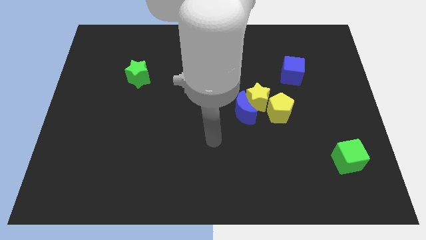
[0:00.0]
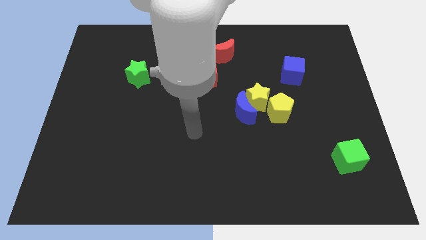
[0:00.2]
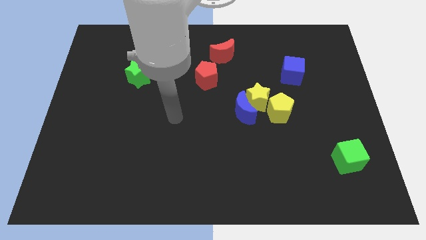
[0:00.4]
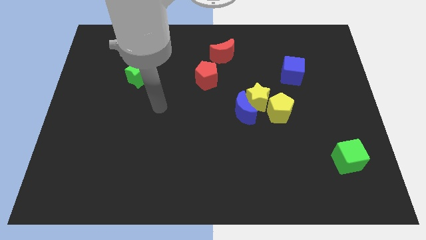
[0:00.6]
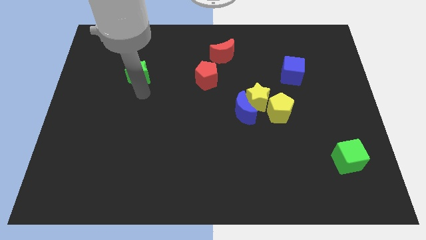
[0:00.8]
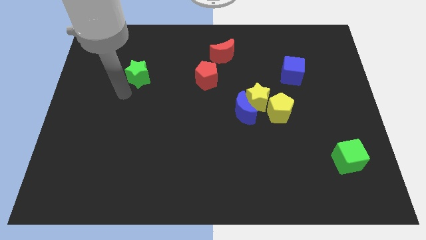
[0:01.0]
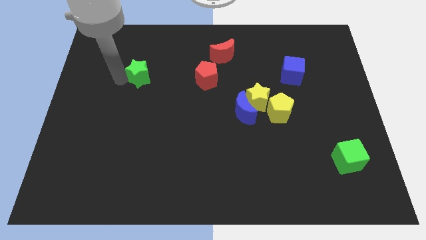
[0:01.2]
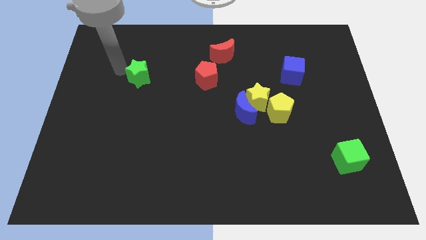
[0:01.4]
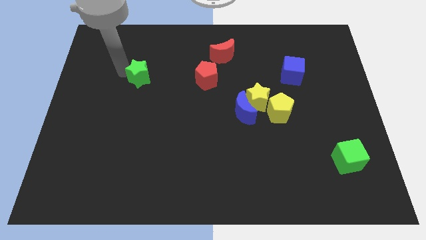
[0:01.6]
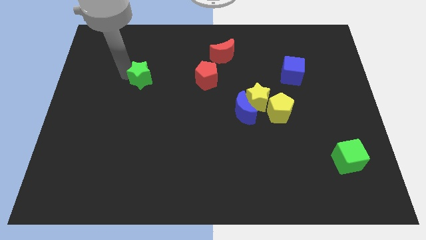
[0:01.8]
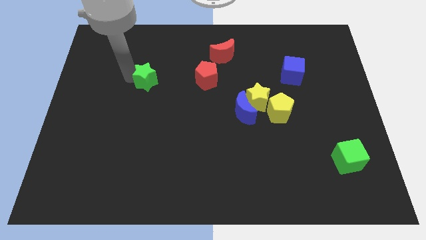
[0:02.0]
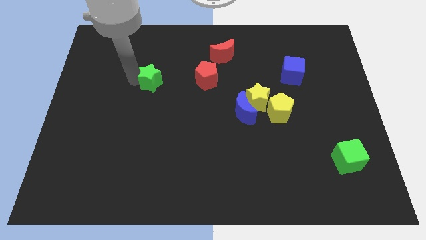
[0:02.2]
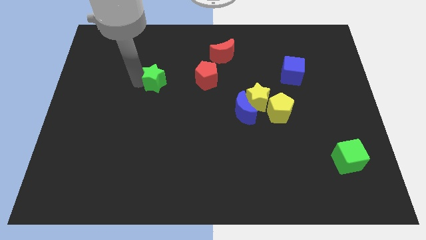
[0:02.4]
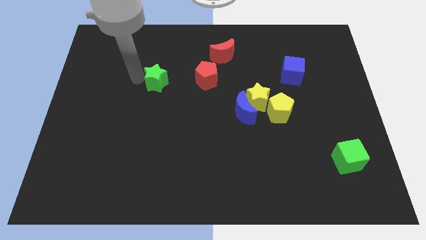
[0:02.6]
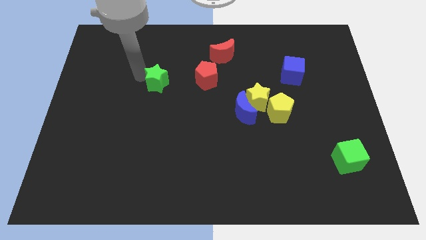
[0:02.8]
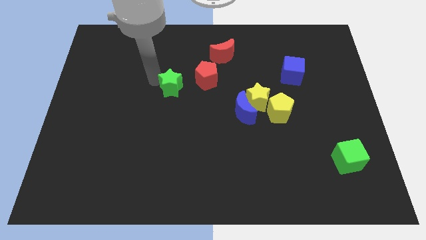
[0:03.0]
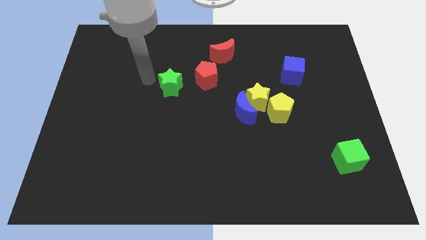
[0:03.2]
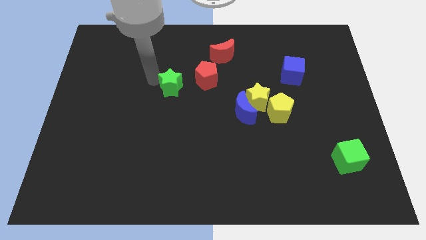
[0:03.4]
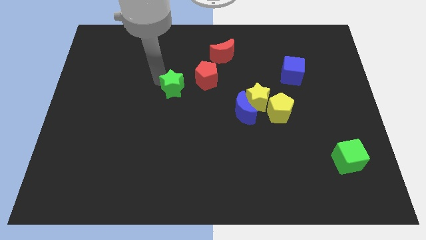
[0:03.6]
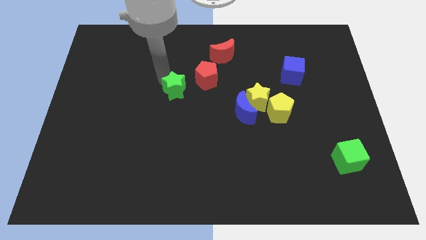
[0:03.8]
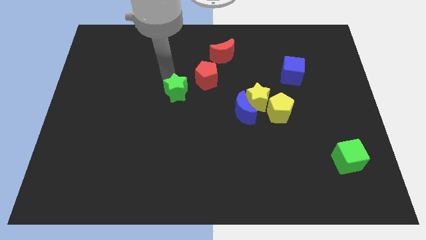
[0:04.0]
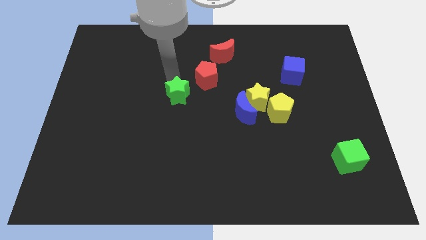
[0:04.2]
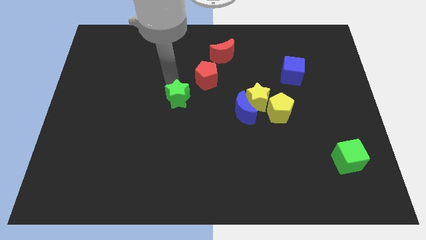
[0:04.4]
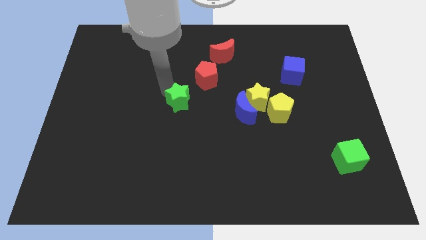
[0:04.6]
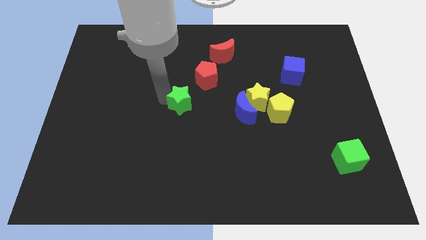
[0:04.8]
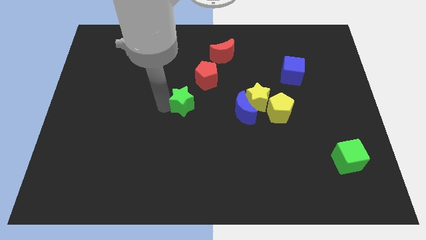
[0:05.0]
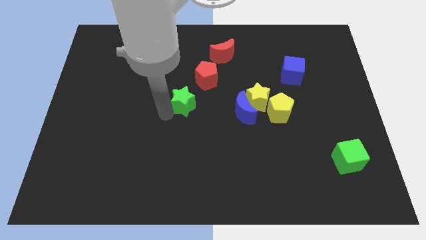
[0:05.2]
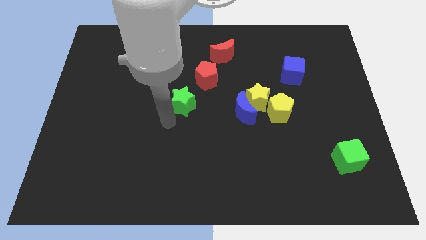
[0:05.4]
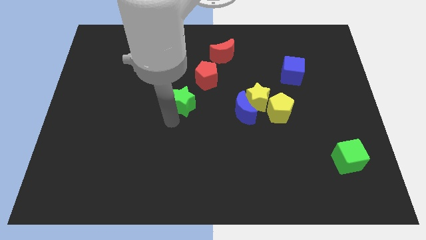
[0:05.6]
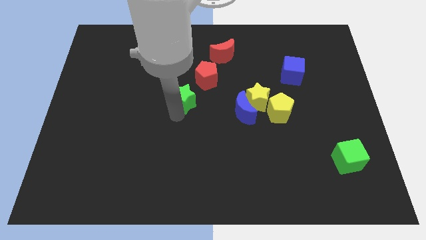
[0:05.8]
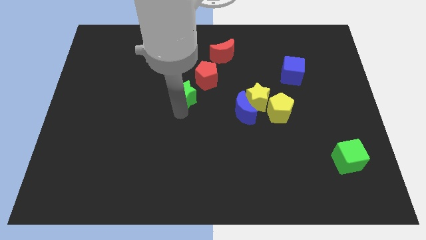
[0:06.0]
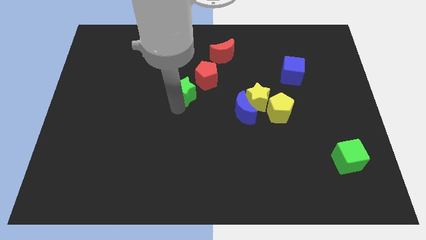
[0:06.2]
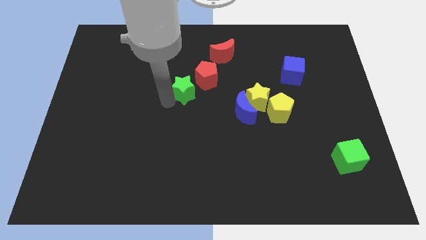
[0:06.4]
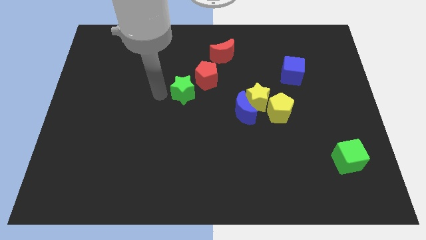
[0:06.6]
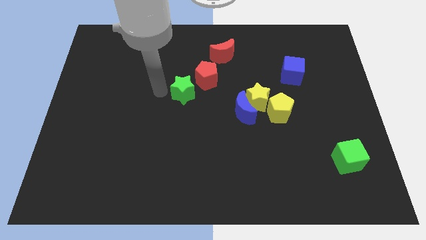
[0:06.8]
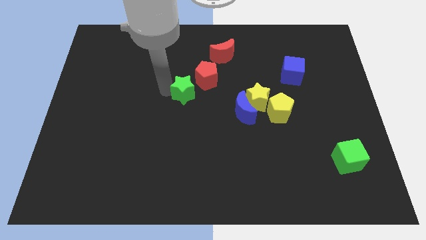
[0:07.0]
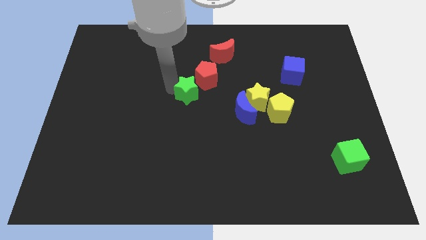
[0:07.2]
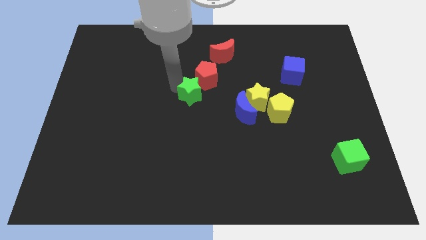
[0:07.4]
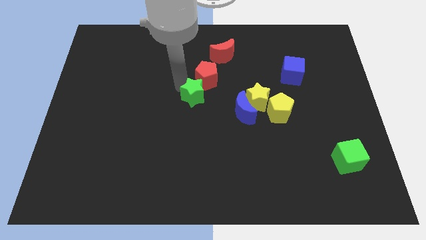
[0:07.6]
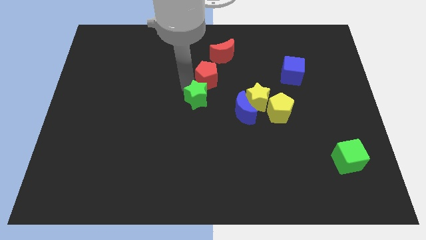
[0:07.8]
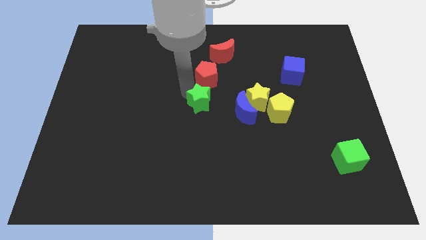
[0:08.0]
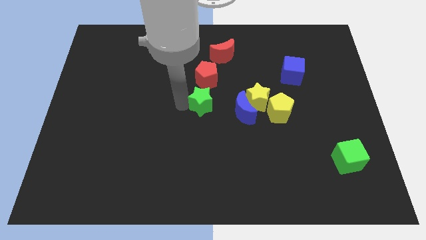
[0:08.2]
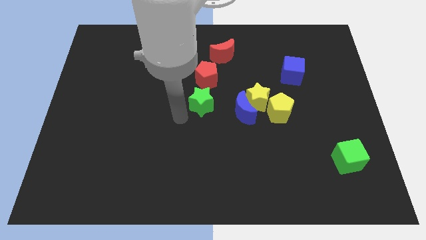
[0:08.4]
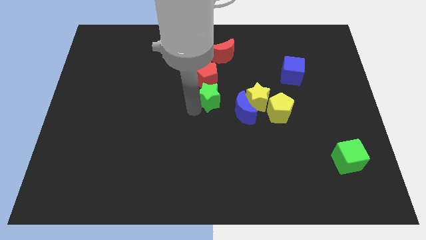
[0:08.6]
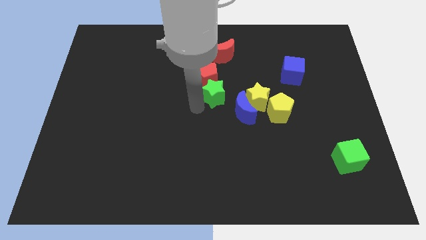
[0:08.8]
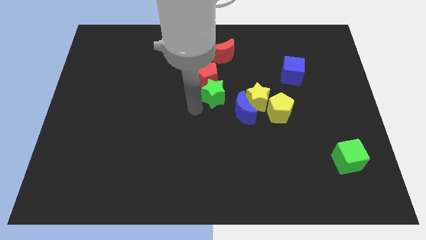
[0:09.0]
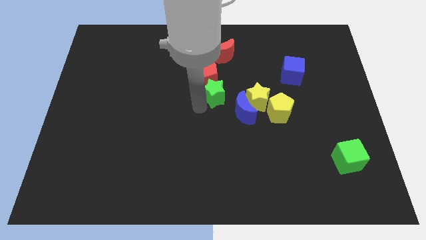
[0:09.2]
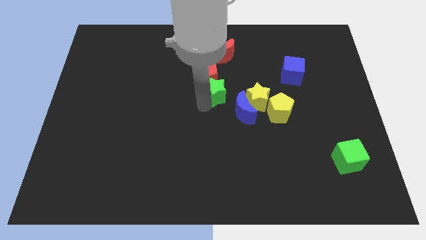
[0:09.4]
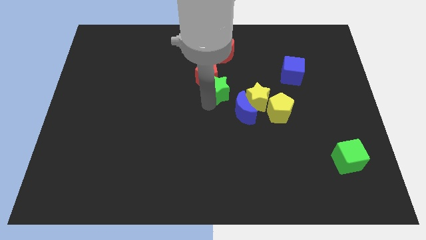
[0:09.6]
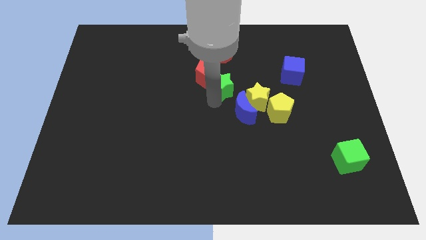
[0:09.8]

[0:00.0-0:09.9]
move the green star to the right

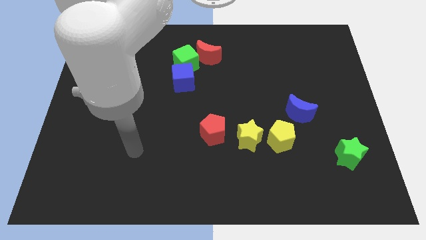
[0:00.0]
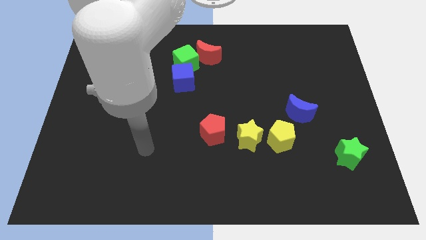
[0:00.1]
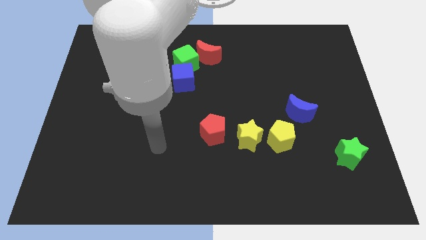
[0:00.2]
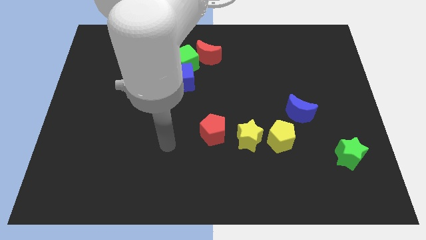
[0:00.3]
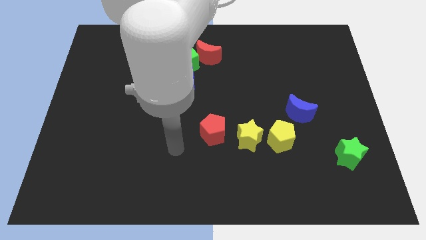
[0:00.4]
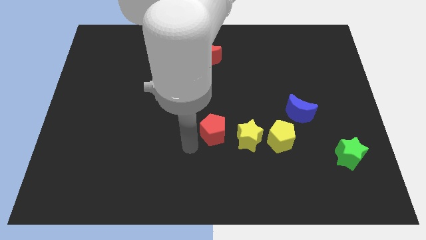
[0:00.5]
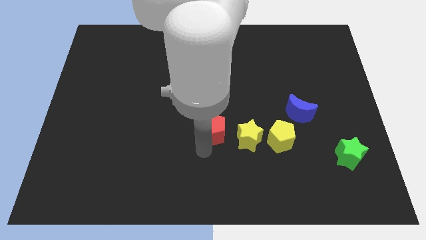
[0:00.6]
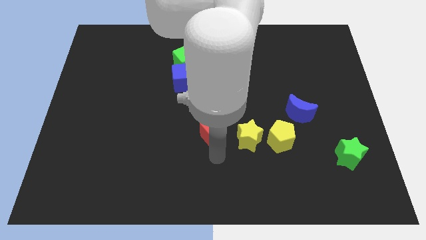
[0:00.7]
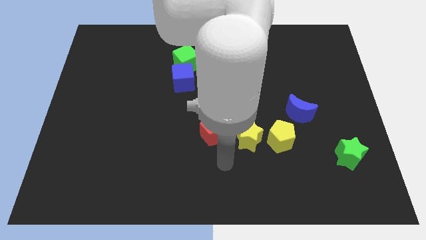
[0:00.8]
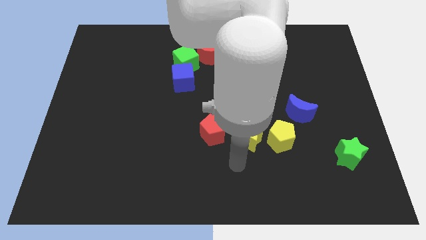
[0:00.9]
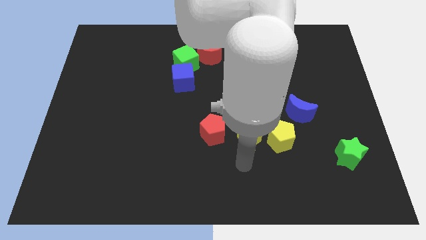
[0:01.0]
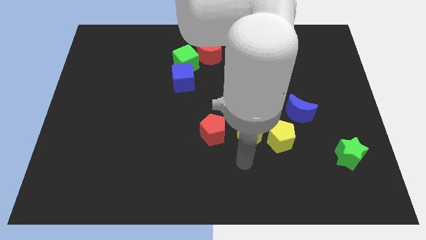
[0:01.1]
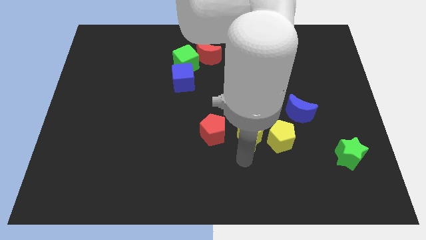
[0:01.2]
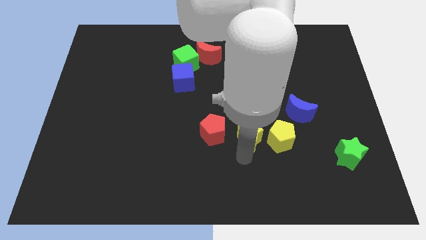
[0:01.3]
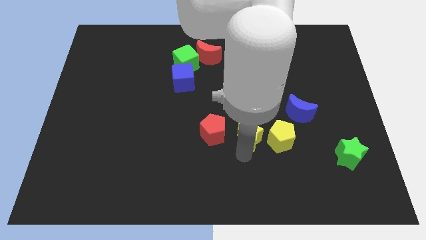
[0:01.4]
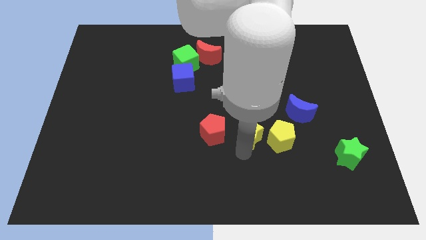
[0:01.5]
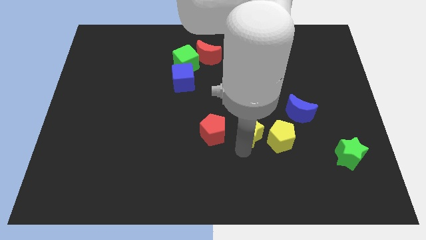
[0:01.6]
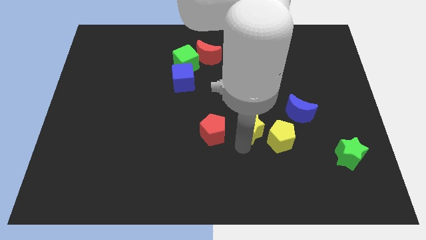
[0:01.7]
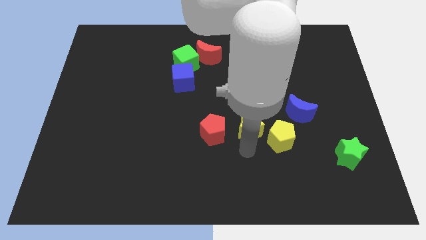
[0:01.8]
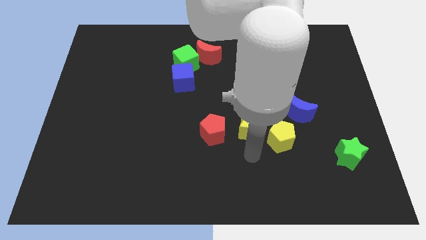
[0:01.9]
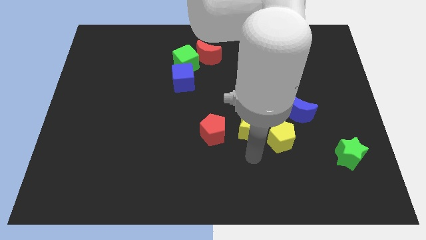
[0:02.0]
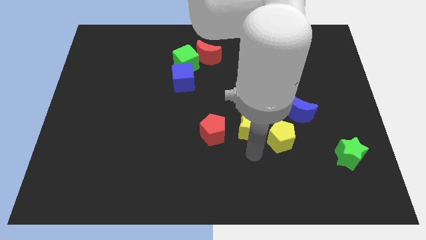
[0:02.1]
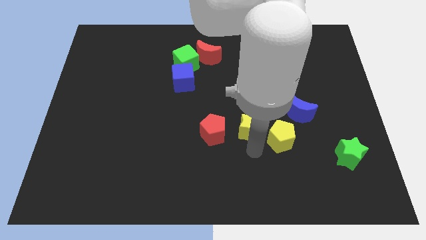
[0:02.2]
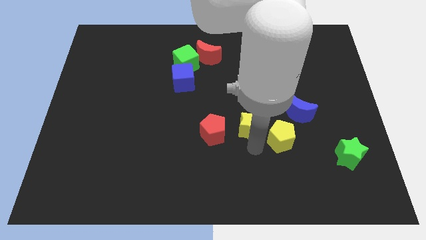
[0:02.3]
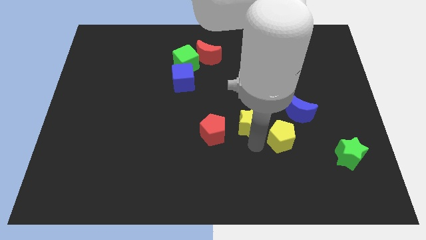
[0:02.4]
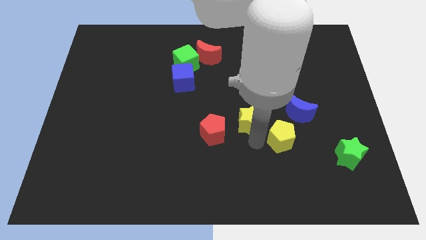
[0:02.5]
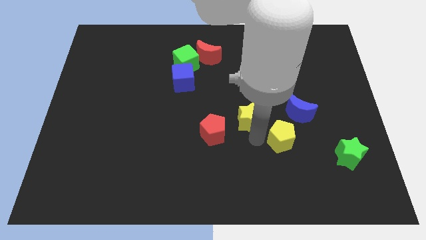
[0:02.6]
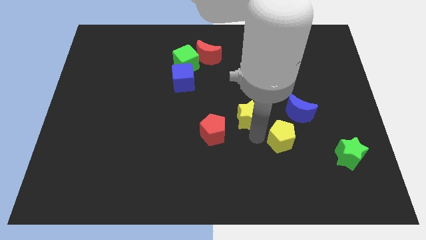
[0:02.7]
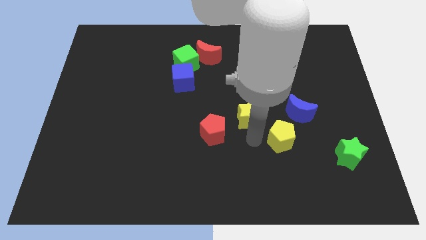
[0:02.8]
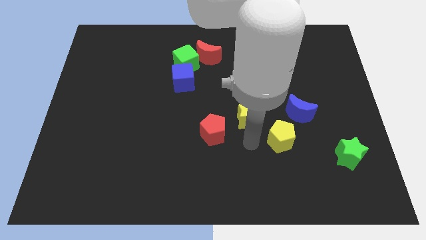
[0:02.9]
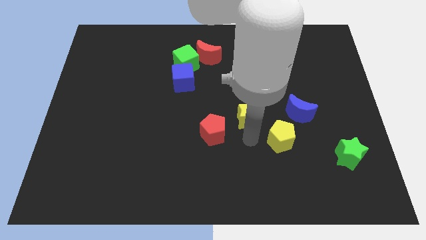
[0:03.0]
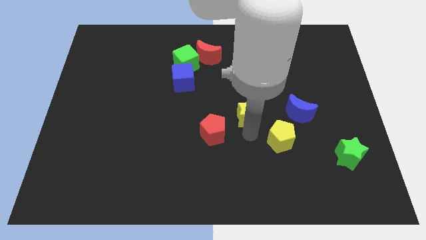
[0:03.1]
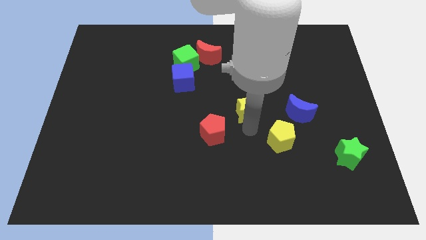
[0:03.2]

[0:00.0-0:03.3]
push the yellow star upwards a little
